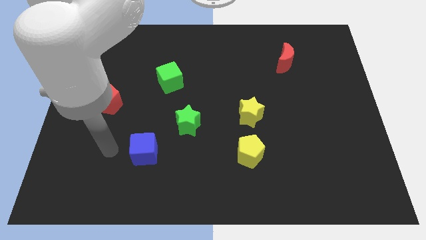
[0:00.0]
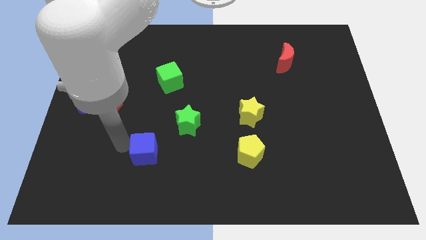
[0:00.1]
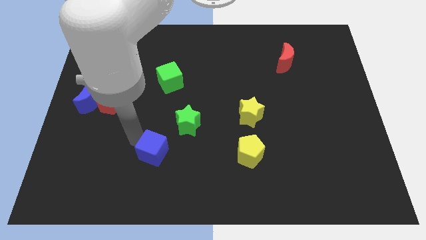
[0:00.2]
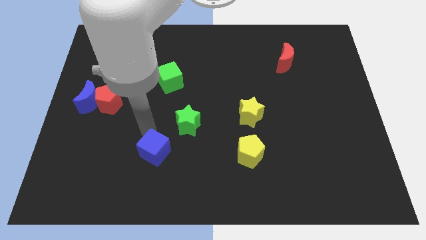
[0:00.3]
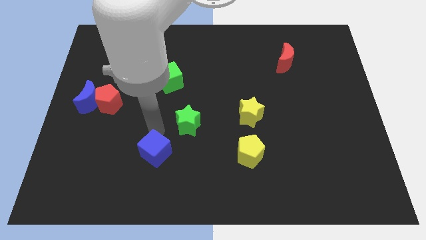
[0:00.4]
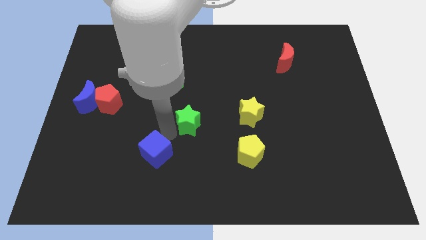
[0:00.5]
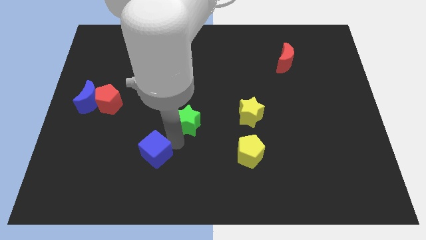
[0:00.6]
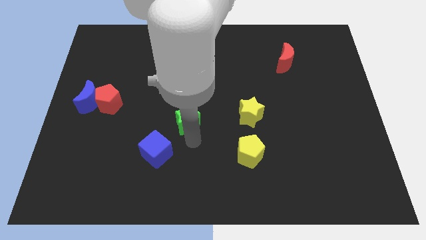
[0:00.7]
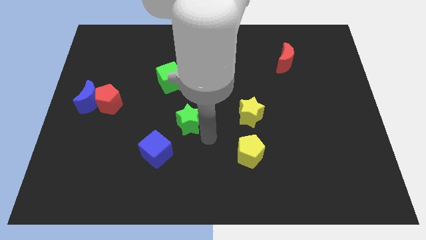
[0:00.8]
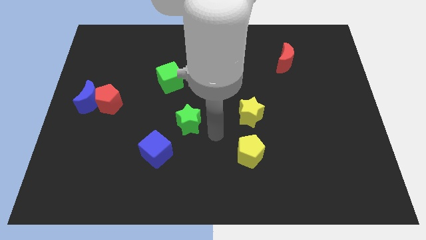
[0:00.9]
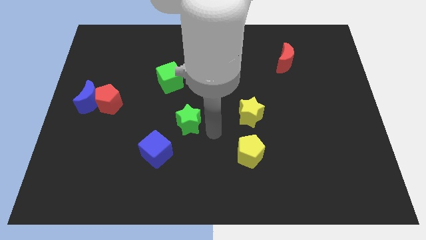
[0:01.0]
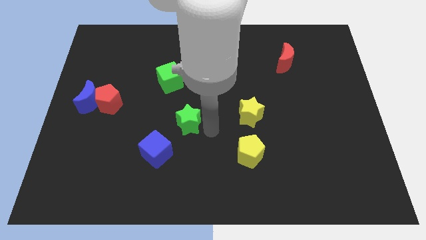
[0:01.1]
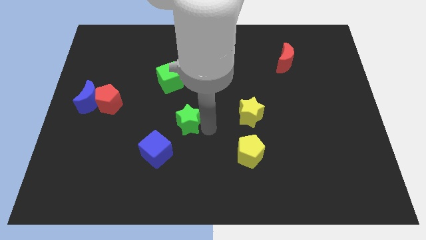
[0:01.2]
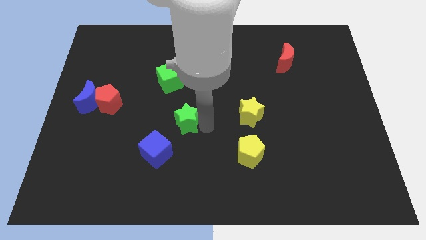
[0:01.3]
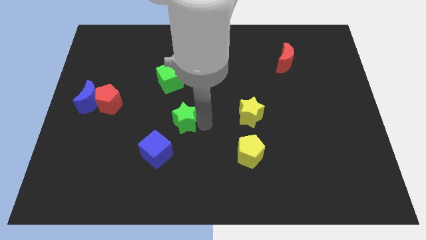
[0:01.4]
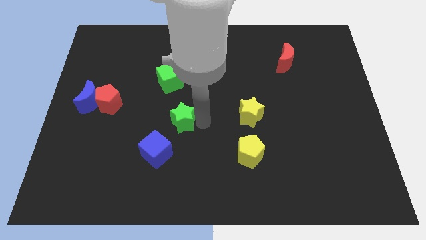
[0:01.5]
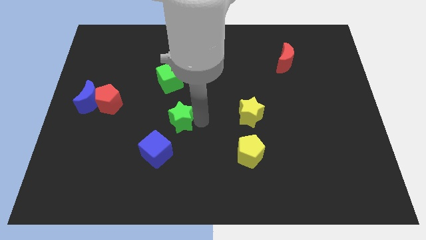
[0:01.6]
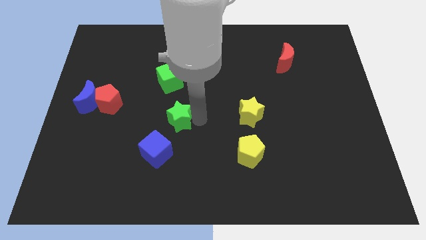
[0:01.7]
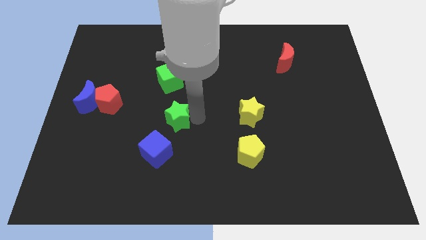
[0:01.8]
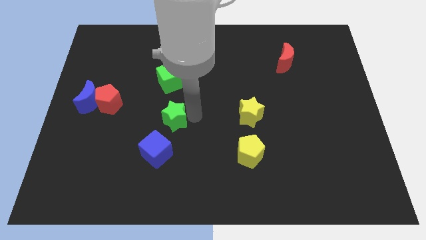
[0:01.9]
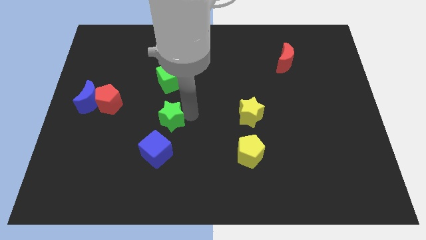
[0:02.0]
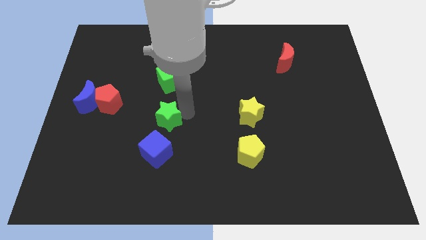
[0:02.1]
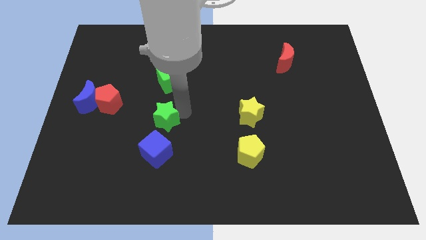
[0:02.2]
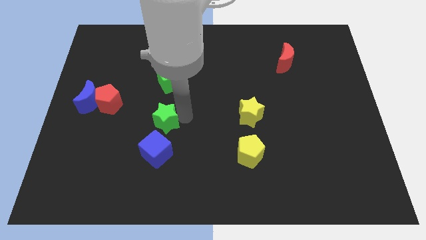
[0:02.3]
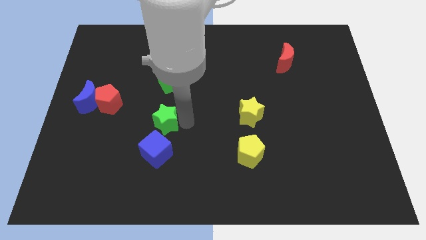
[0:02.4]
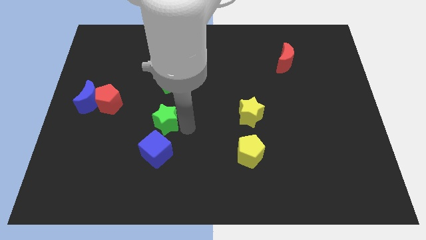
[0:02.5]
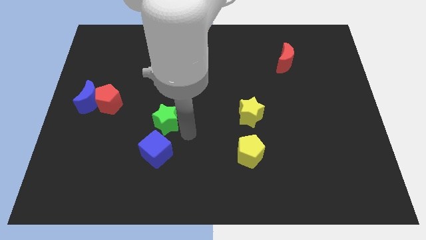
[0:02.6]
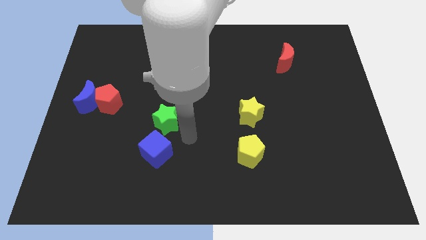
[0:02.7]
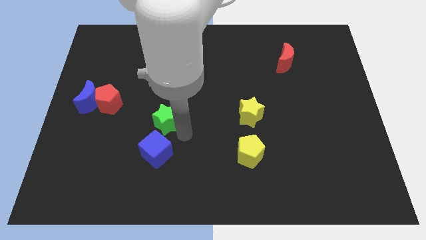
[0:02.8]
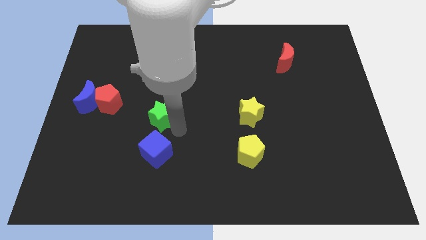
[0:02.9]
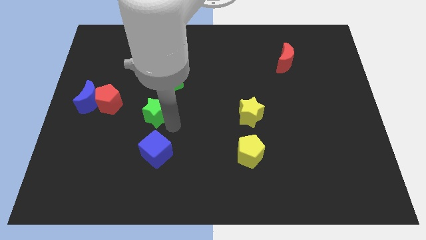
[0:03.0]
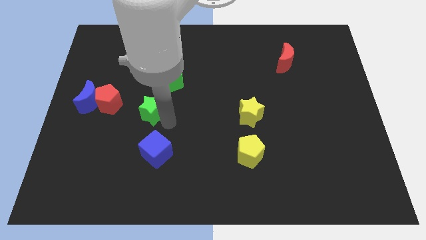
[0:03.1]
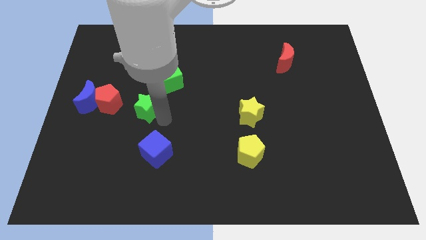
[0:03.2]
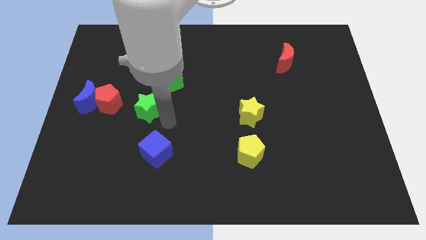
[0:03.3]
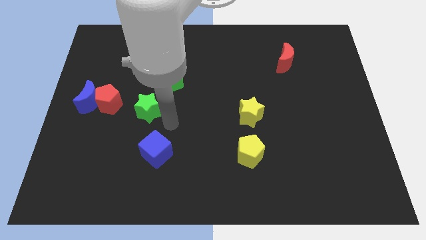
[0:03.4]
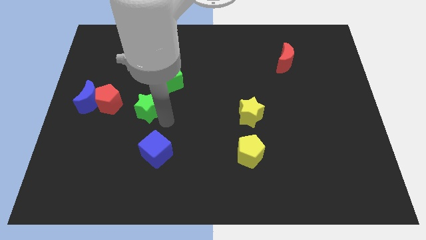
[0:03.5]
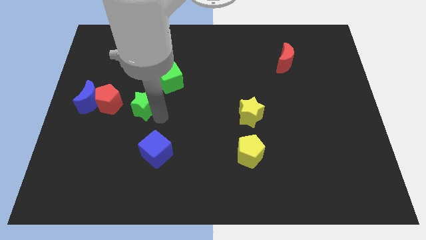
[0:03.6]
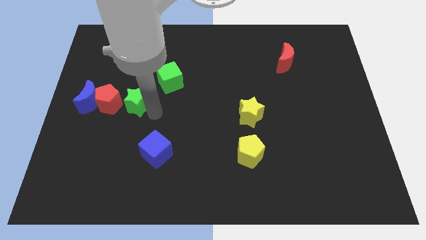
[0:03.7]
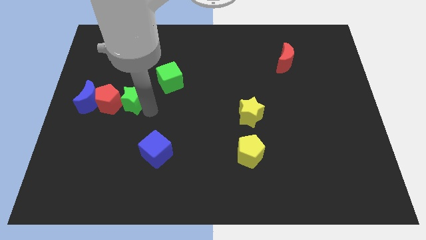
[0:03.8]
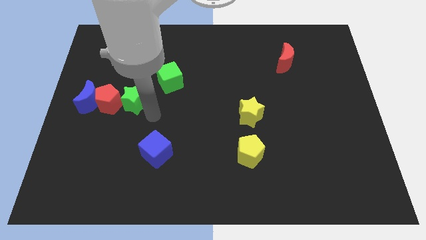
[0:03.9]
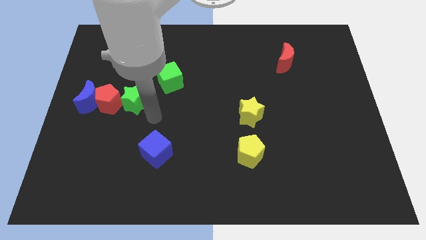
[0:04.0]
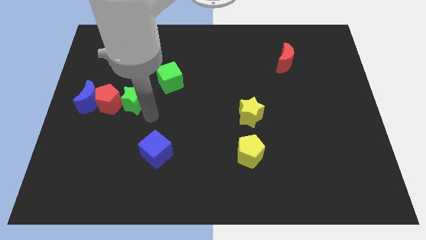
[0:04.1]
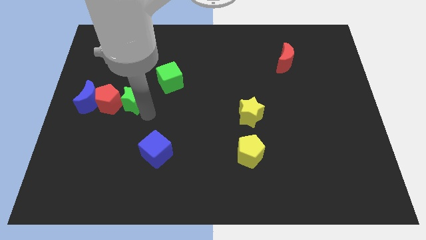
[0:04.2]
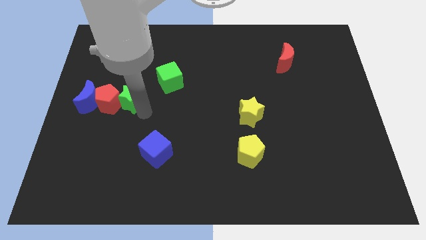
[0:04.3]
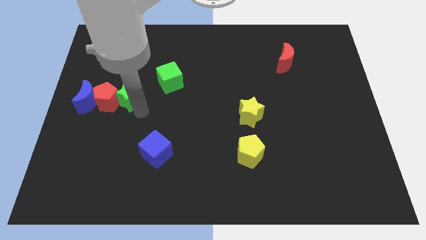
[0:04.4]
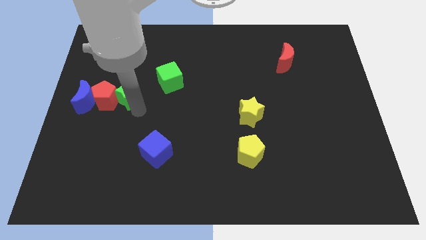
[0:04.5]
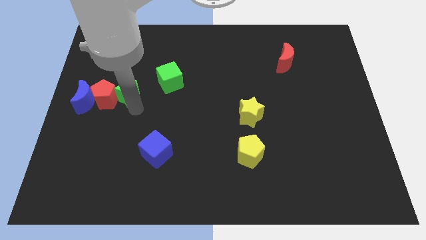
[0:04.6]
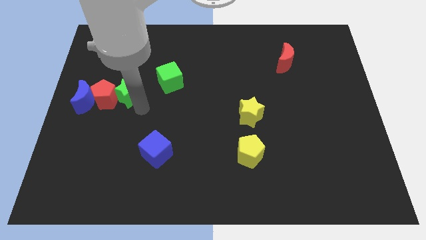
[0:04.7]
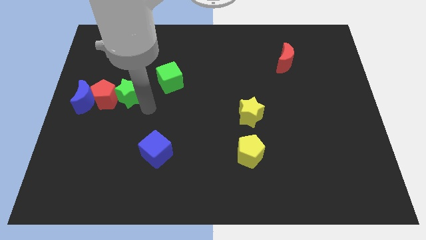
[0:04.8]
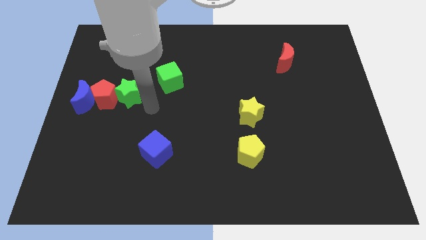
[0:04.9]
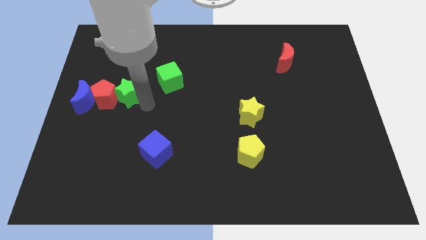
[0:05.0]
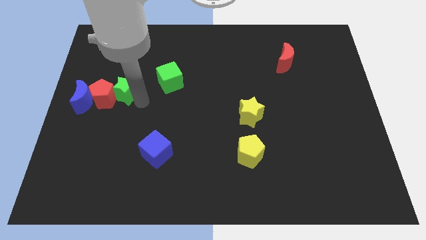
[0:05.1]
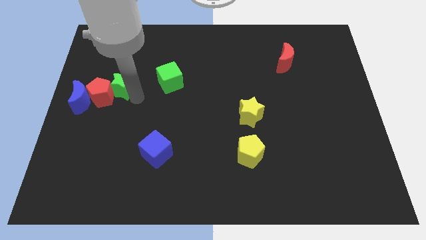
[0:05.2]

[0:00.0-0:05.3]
push the green star to the top right side of the blue moon

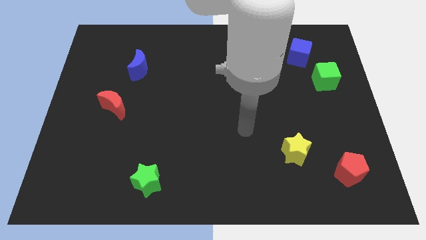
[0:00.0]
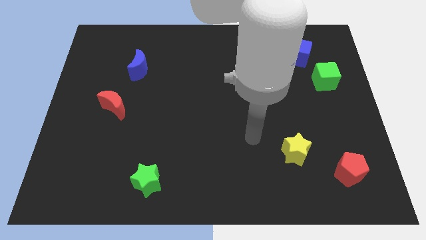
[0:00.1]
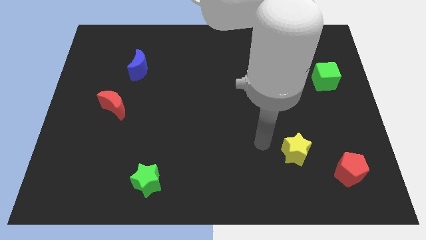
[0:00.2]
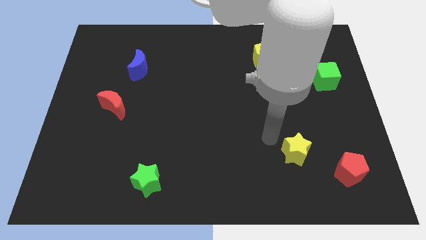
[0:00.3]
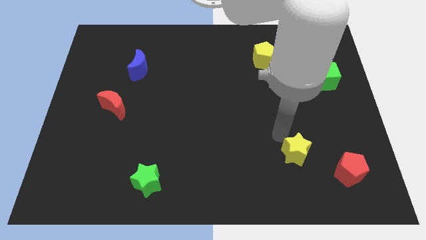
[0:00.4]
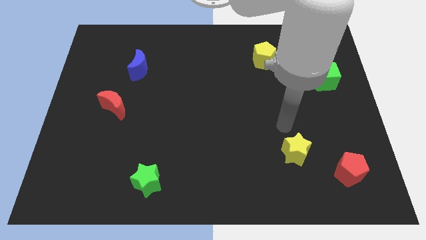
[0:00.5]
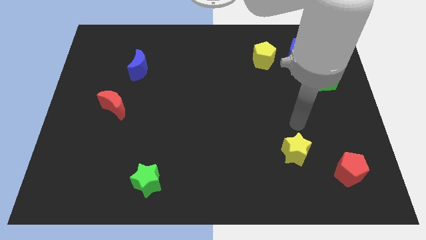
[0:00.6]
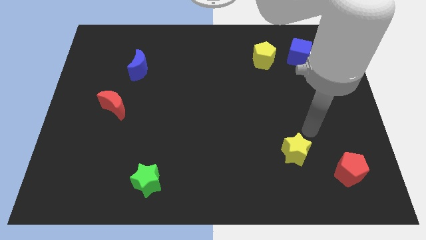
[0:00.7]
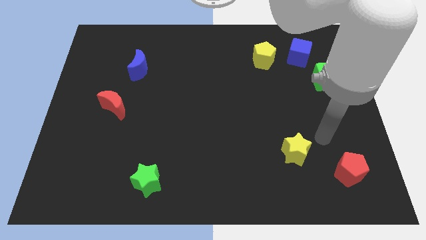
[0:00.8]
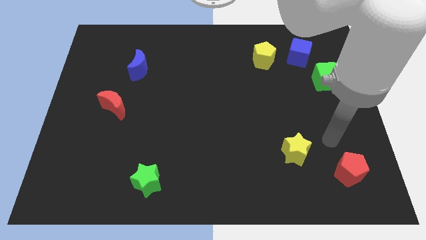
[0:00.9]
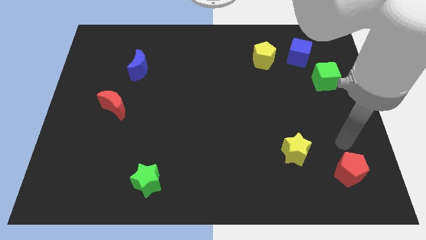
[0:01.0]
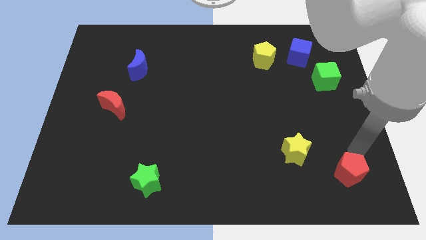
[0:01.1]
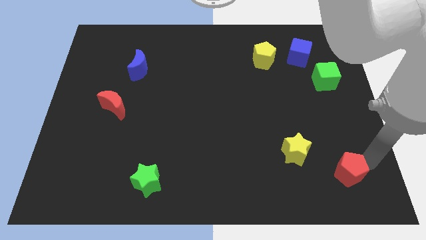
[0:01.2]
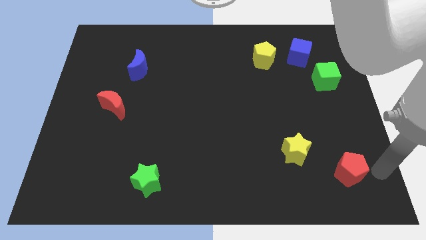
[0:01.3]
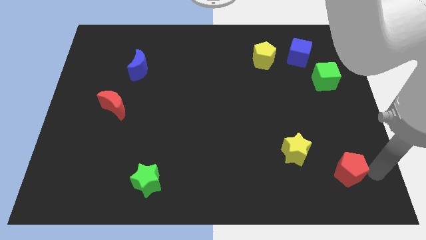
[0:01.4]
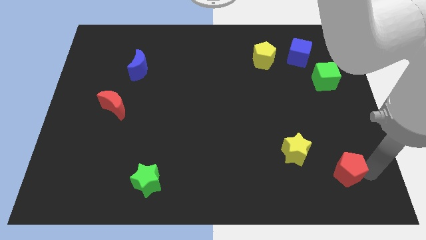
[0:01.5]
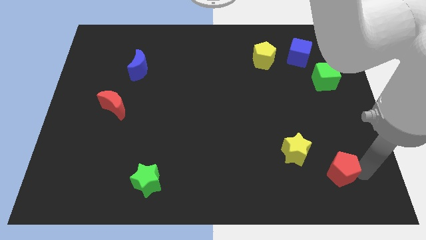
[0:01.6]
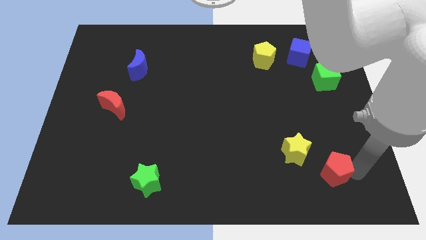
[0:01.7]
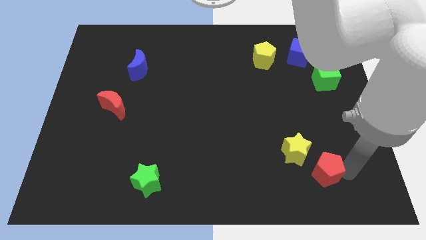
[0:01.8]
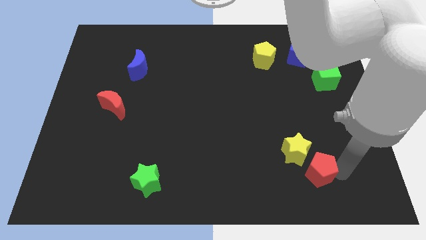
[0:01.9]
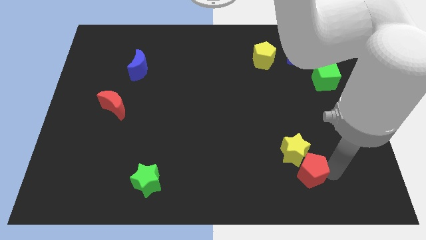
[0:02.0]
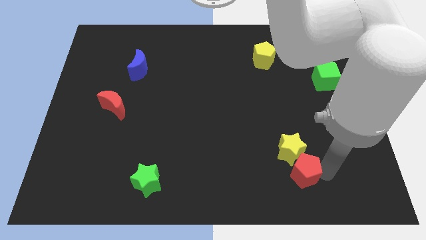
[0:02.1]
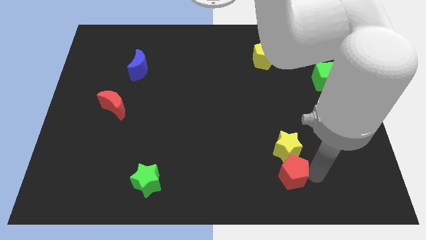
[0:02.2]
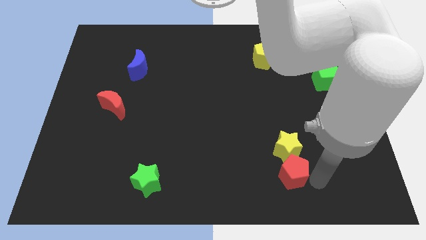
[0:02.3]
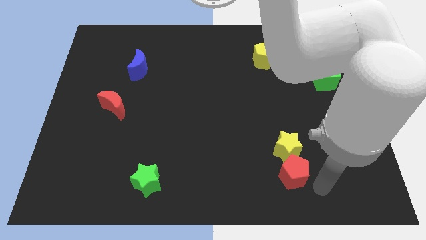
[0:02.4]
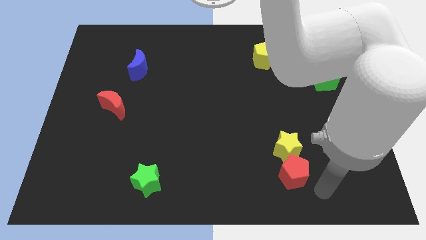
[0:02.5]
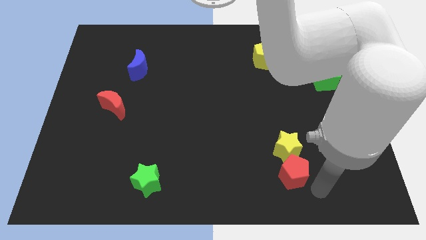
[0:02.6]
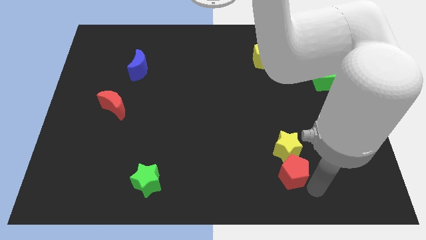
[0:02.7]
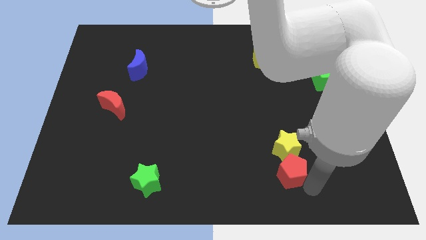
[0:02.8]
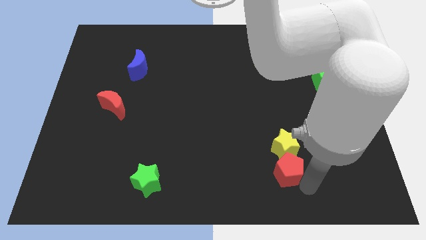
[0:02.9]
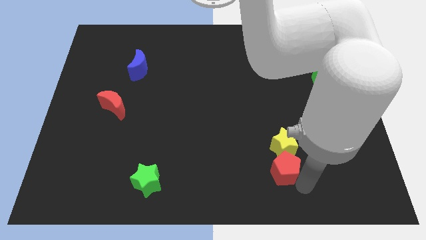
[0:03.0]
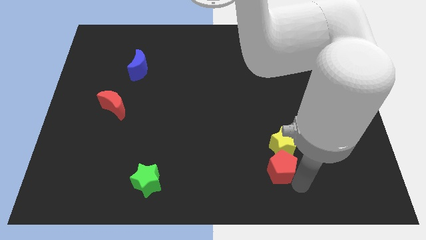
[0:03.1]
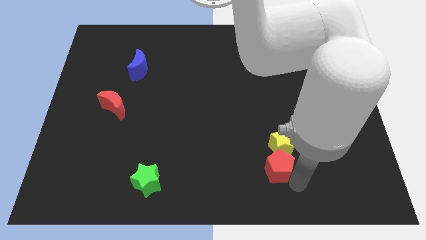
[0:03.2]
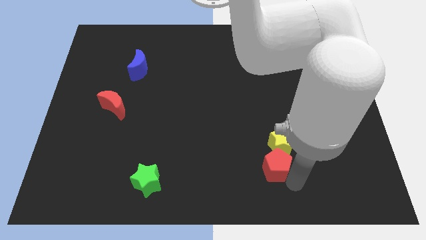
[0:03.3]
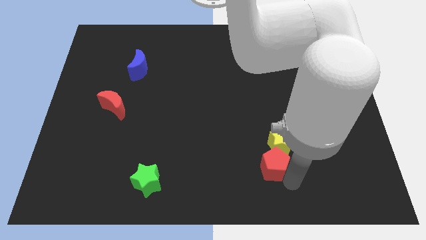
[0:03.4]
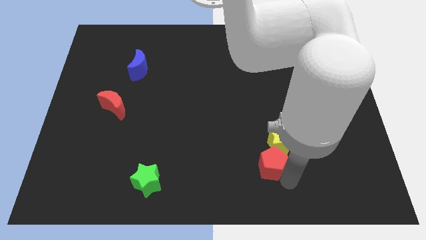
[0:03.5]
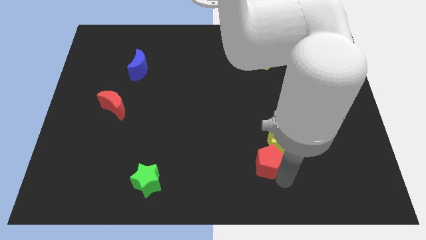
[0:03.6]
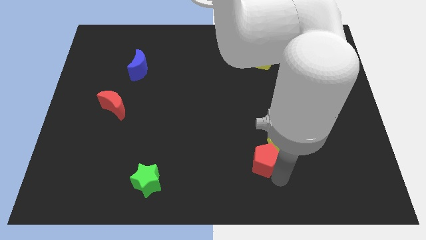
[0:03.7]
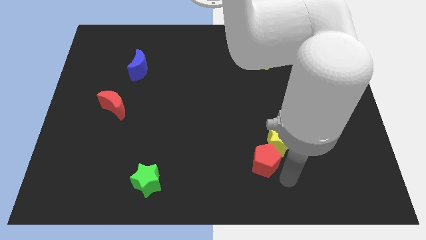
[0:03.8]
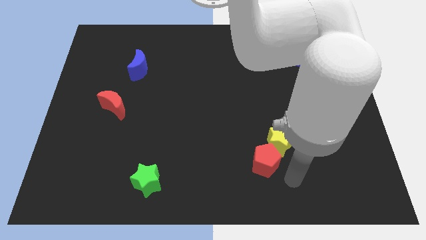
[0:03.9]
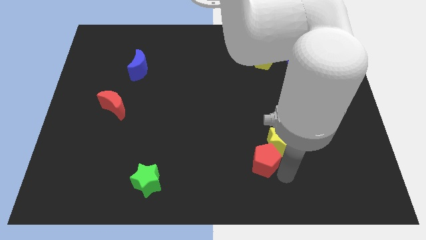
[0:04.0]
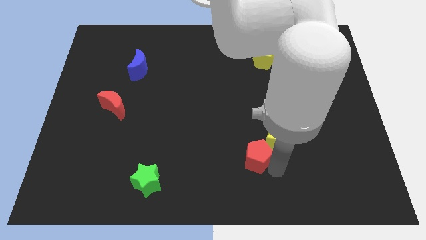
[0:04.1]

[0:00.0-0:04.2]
put the red pentagon just left of the yellow star
